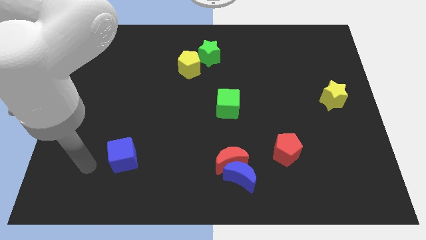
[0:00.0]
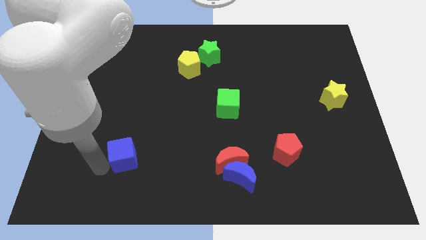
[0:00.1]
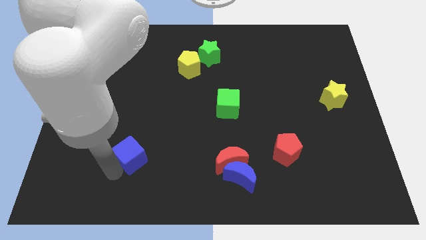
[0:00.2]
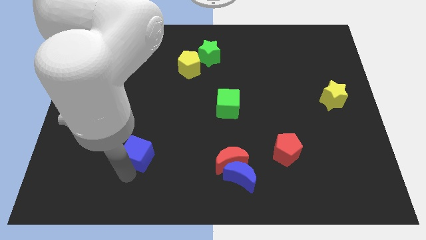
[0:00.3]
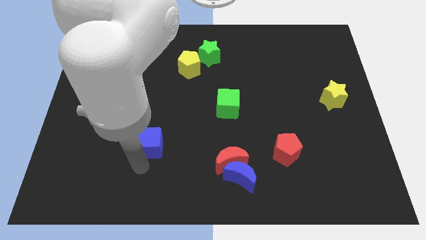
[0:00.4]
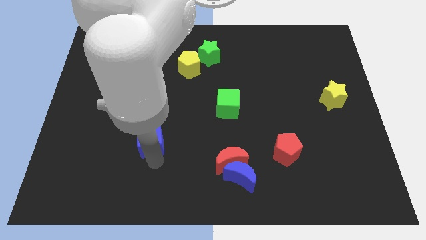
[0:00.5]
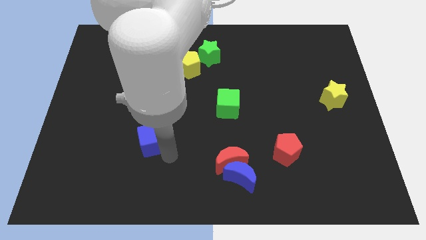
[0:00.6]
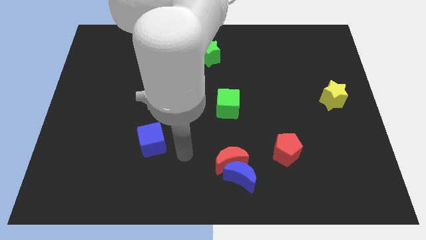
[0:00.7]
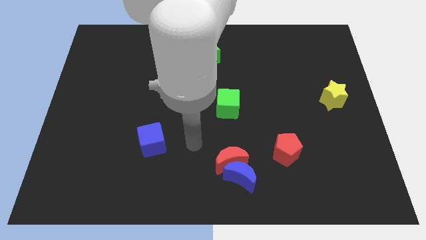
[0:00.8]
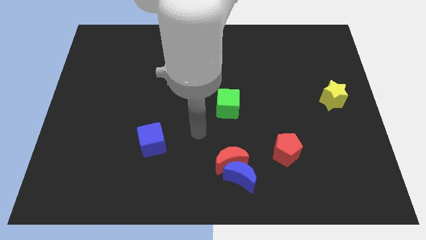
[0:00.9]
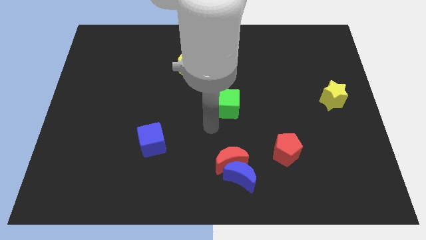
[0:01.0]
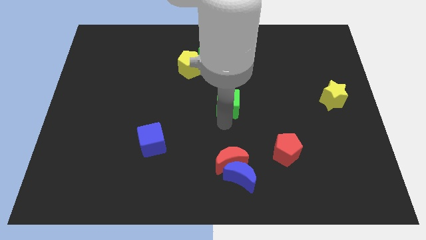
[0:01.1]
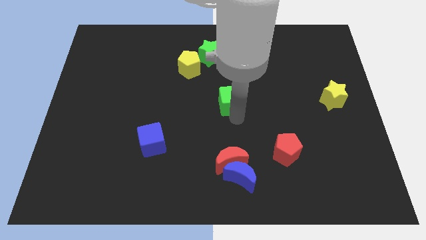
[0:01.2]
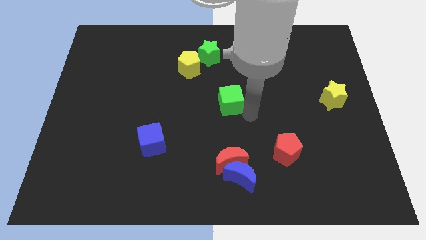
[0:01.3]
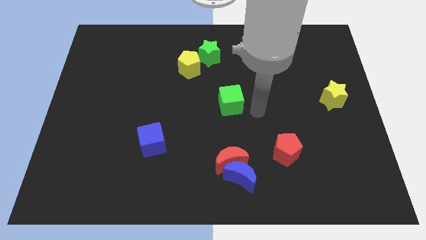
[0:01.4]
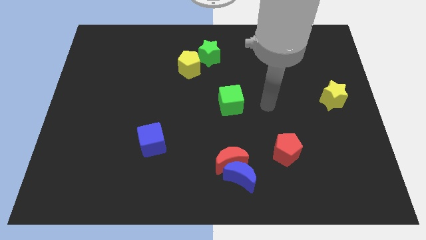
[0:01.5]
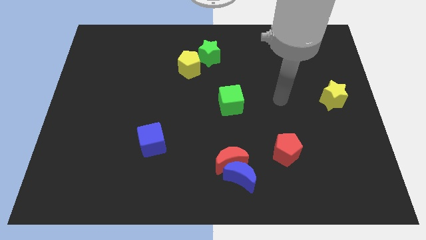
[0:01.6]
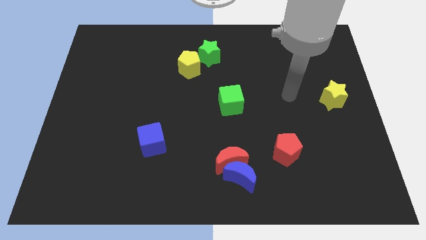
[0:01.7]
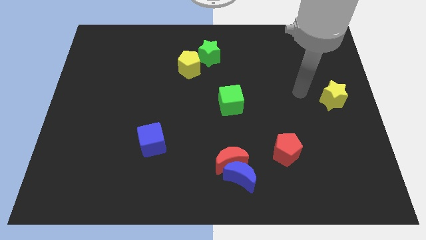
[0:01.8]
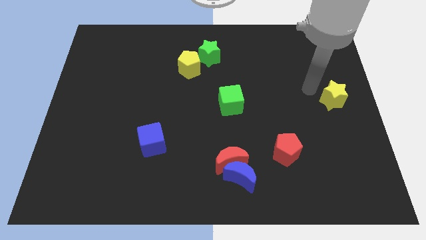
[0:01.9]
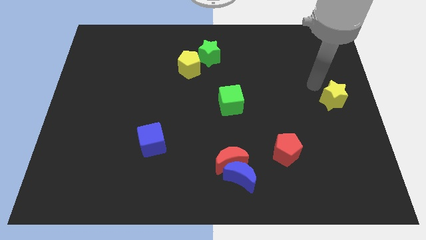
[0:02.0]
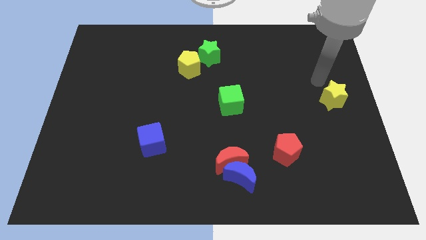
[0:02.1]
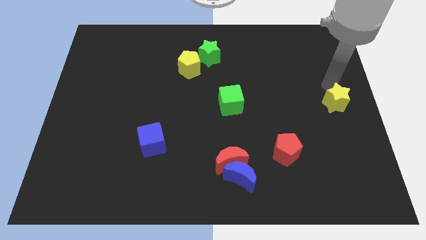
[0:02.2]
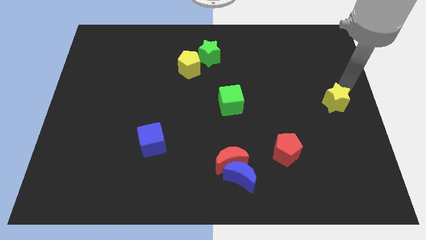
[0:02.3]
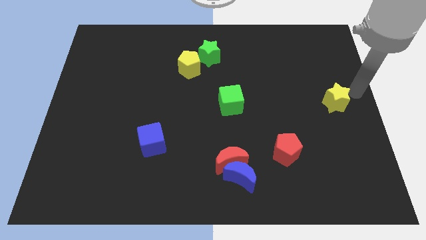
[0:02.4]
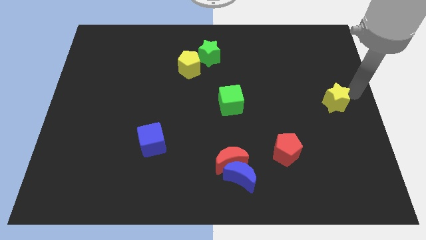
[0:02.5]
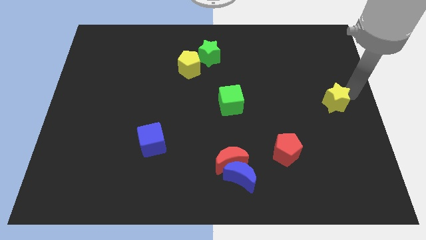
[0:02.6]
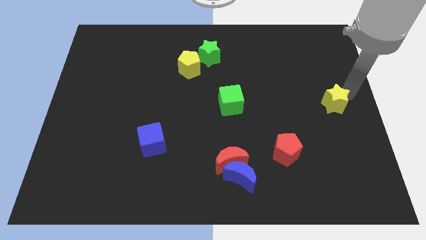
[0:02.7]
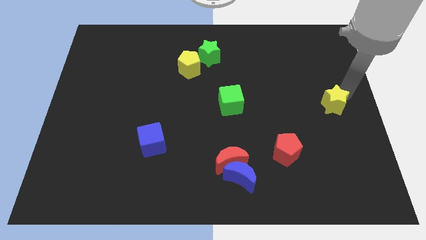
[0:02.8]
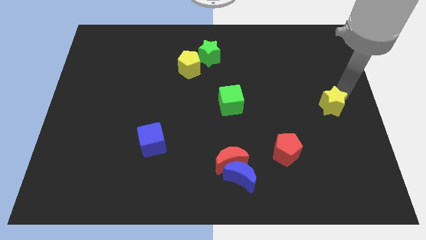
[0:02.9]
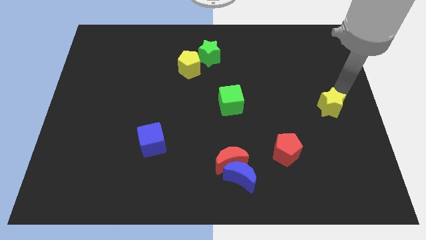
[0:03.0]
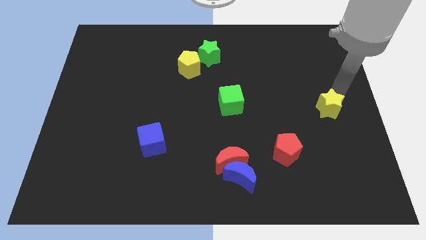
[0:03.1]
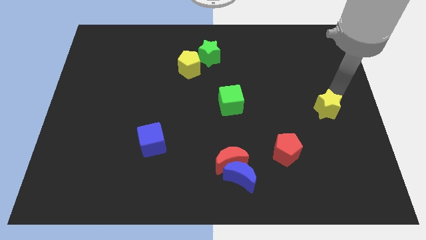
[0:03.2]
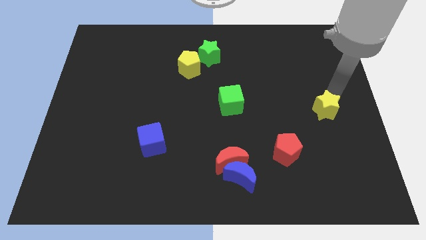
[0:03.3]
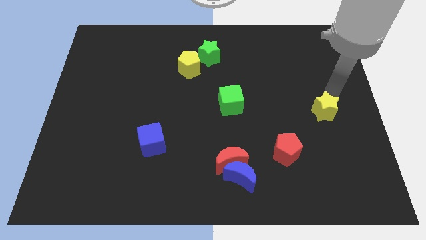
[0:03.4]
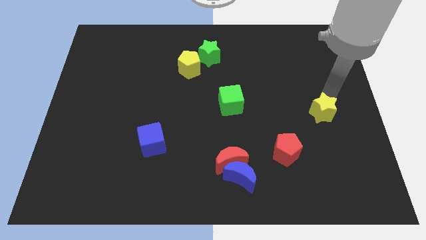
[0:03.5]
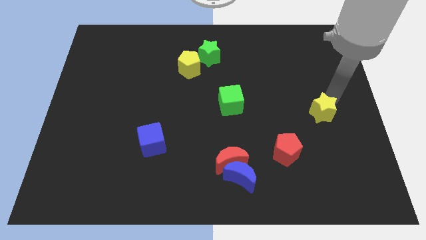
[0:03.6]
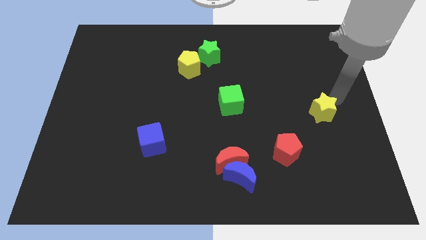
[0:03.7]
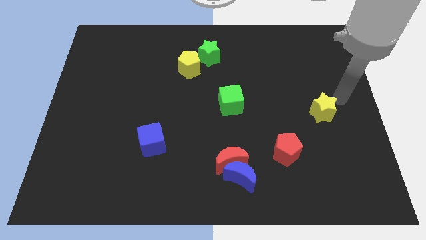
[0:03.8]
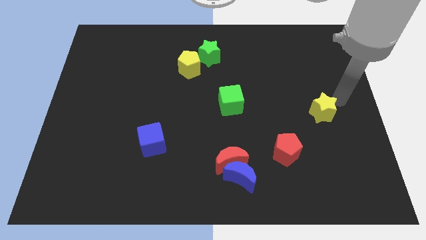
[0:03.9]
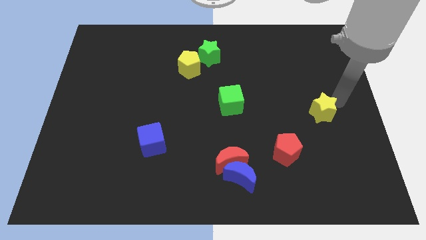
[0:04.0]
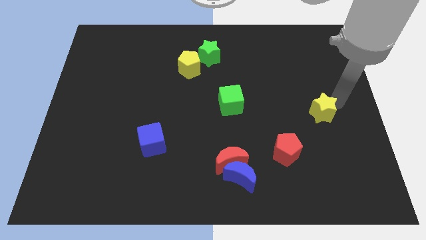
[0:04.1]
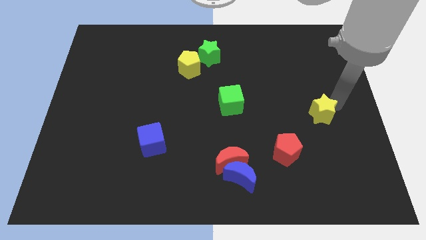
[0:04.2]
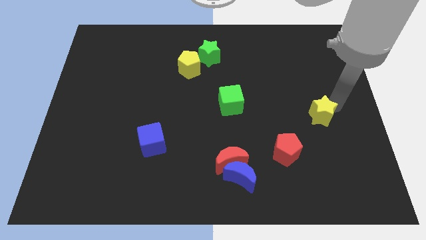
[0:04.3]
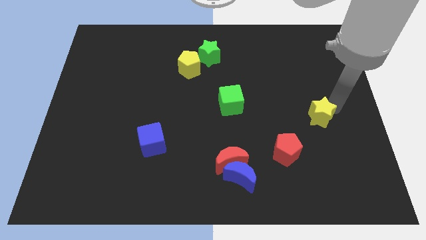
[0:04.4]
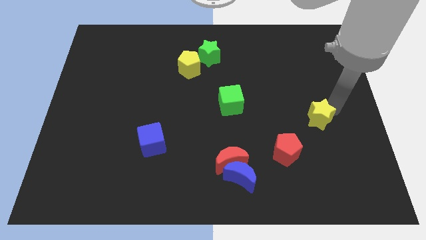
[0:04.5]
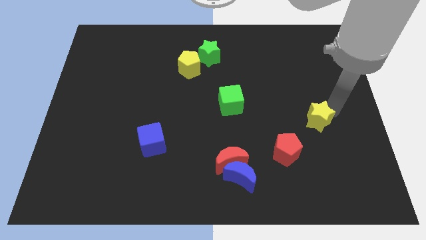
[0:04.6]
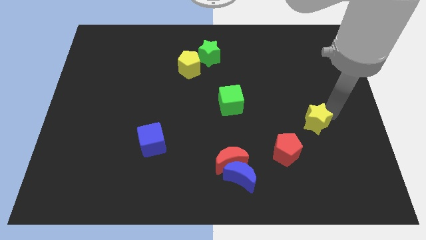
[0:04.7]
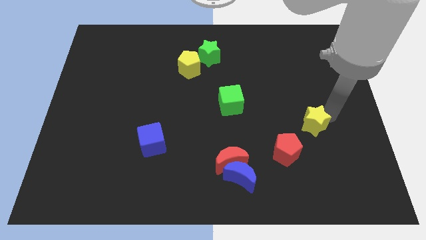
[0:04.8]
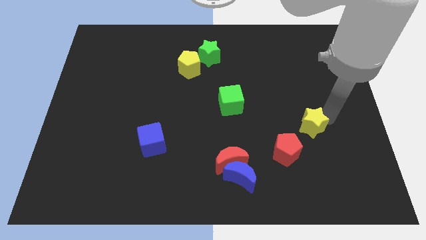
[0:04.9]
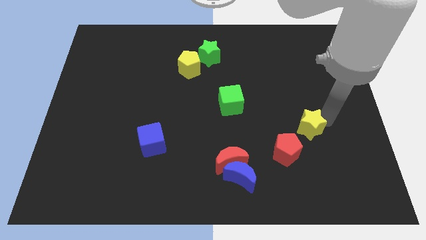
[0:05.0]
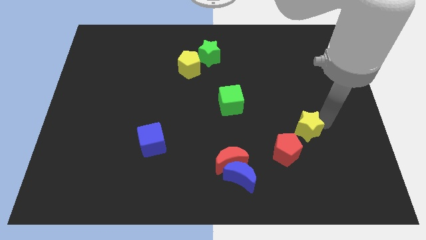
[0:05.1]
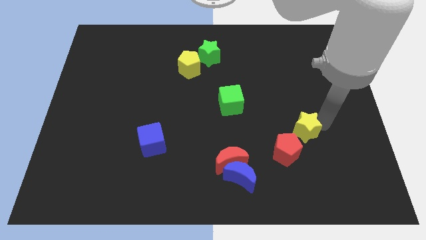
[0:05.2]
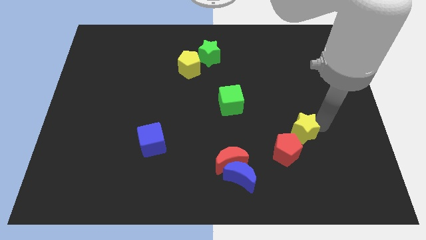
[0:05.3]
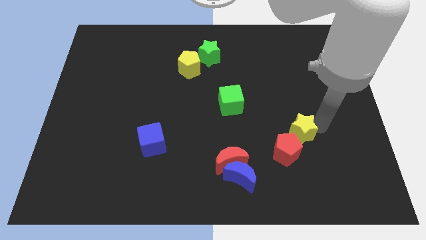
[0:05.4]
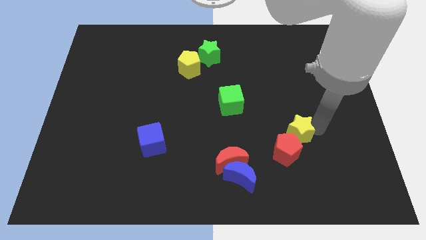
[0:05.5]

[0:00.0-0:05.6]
slide the yellow star close to the red pentagon

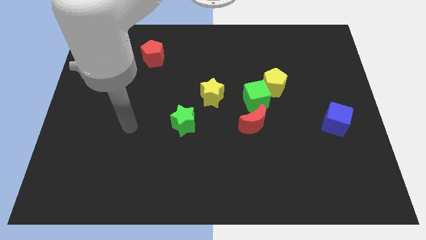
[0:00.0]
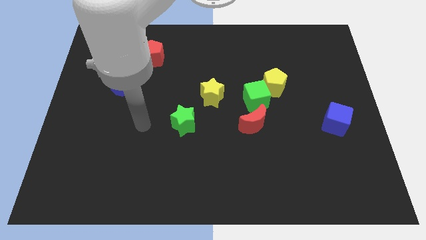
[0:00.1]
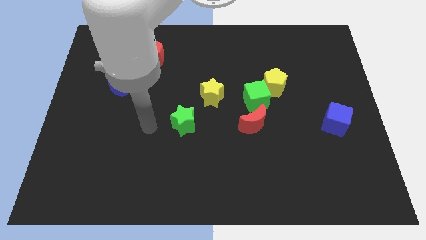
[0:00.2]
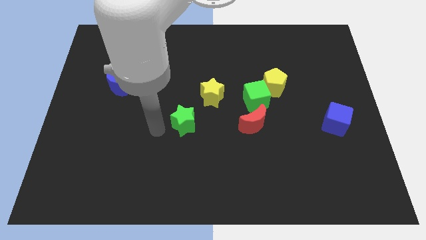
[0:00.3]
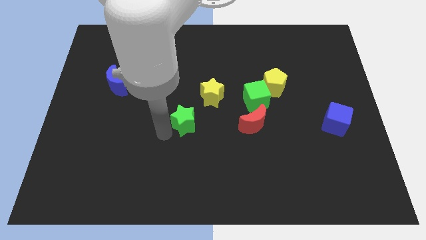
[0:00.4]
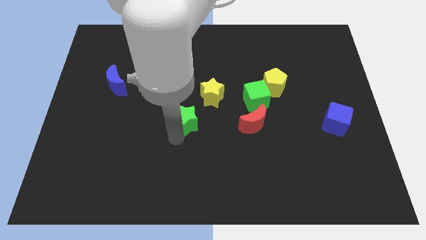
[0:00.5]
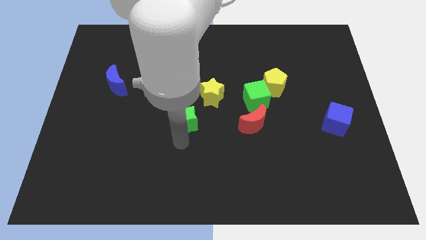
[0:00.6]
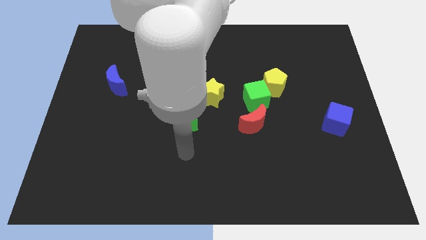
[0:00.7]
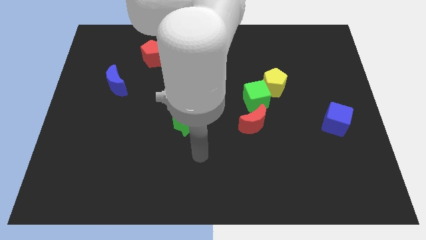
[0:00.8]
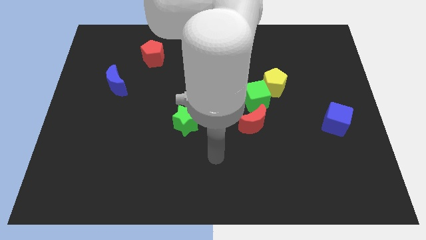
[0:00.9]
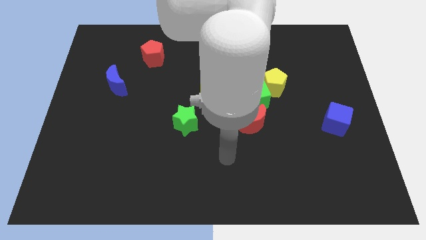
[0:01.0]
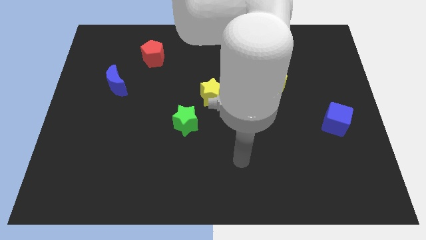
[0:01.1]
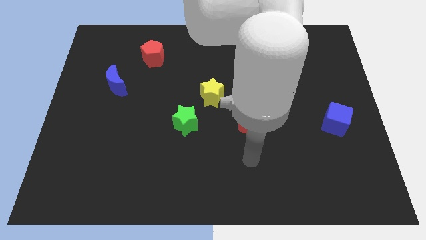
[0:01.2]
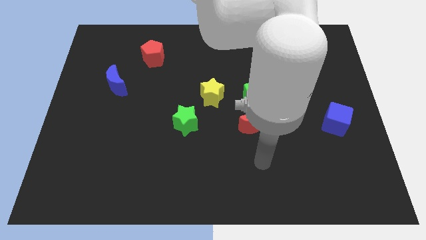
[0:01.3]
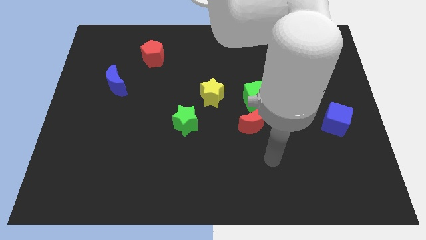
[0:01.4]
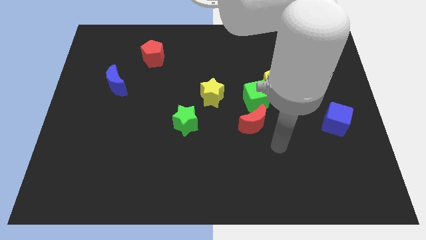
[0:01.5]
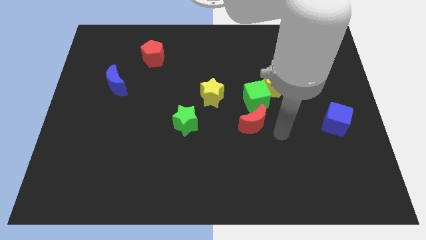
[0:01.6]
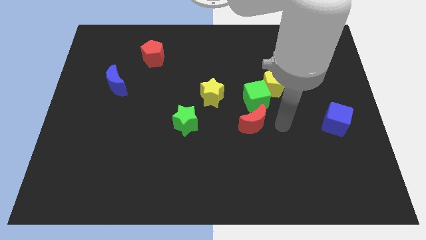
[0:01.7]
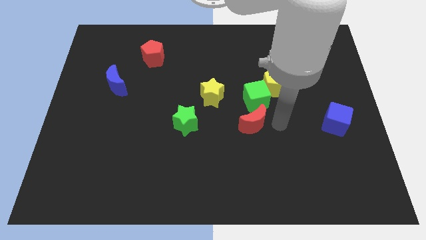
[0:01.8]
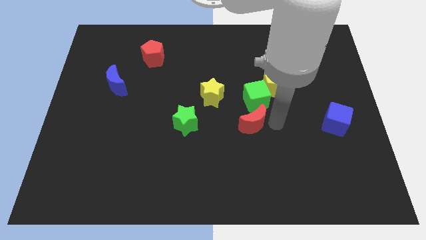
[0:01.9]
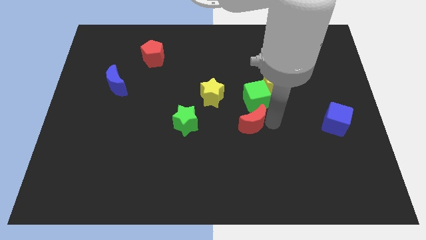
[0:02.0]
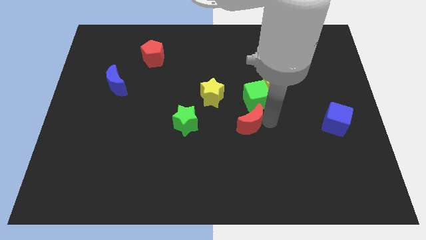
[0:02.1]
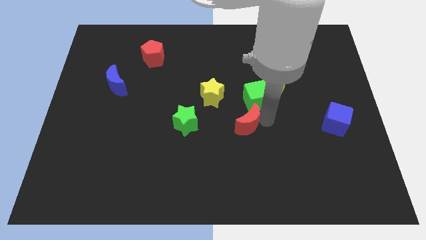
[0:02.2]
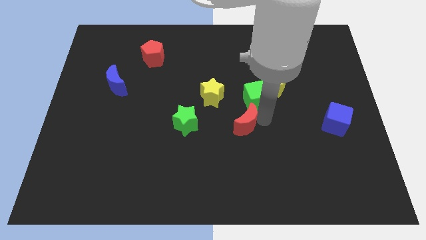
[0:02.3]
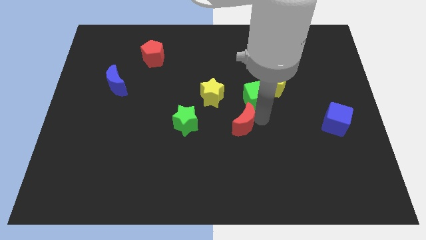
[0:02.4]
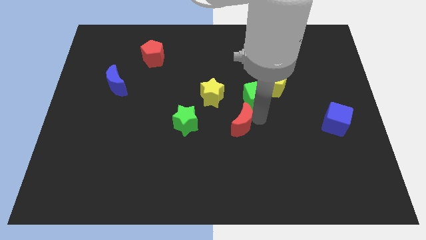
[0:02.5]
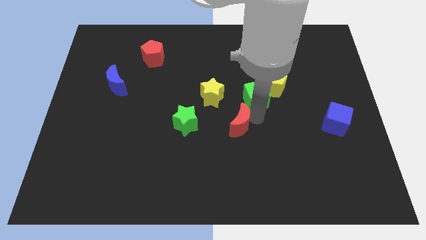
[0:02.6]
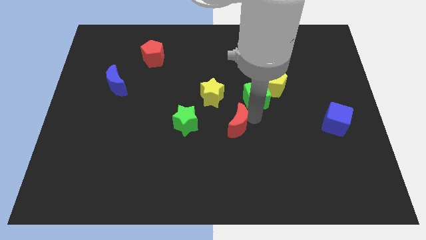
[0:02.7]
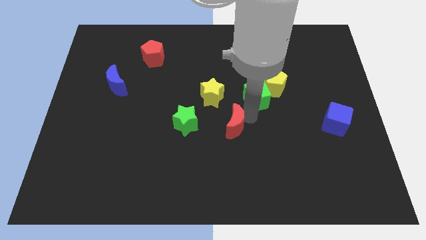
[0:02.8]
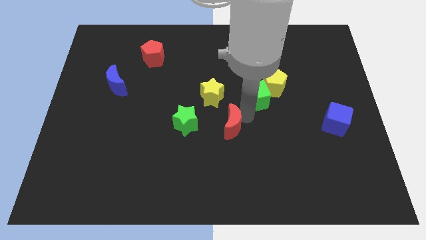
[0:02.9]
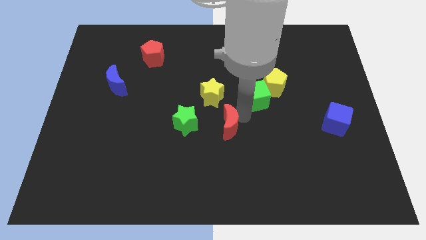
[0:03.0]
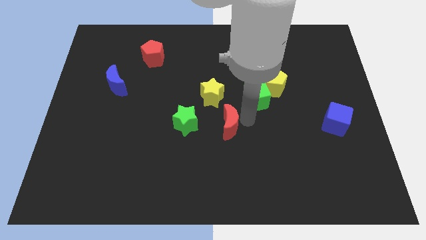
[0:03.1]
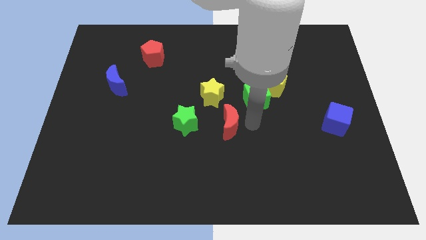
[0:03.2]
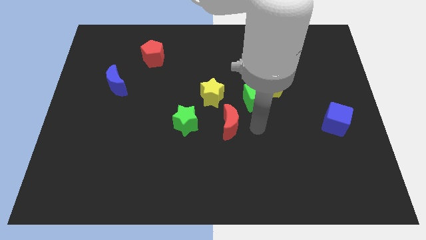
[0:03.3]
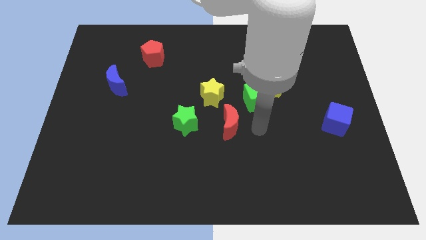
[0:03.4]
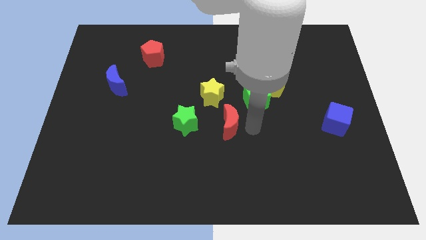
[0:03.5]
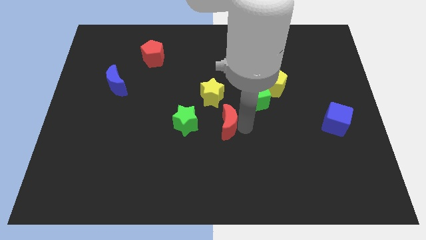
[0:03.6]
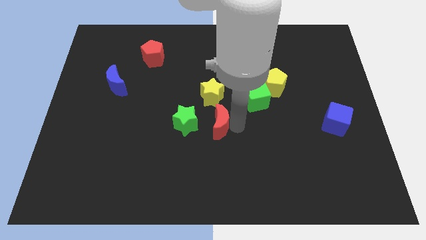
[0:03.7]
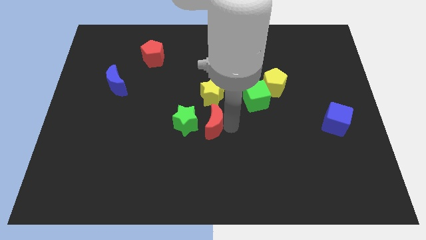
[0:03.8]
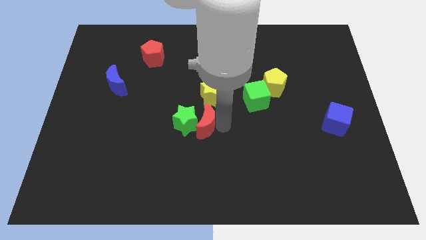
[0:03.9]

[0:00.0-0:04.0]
move the red moon close to the green star
